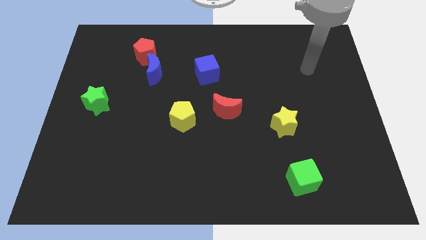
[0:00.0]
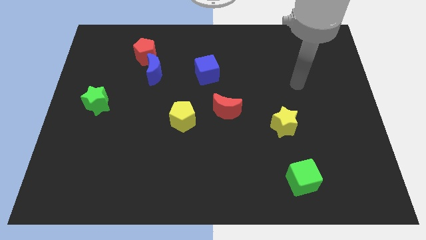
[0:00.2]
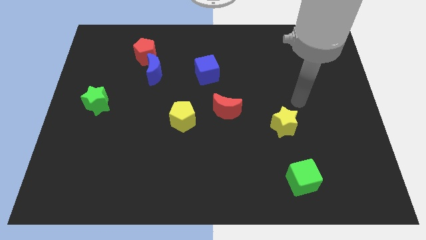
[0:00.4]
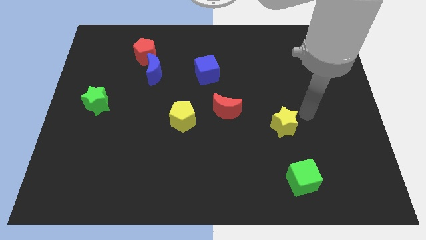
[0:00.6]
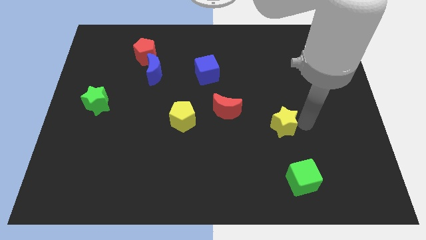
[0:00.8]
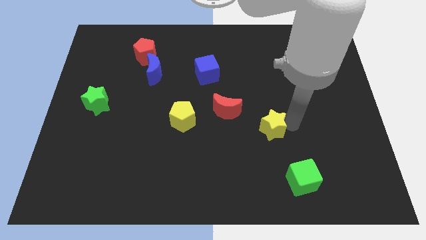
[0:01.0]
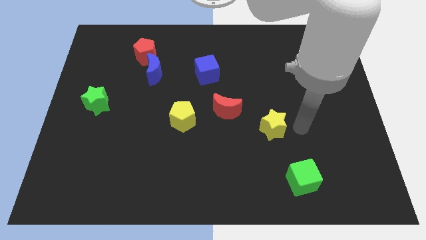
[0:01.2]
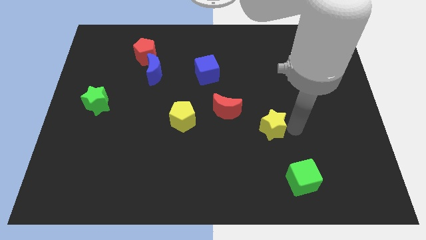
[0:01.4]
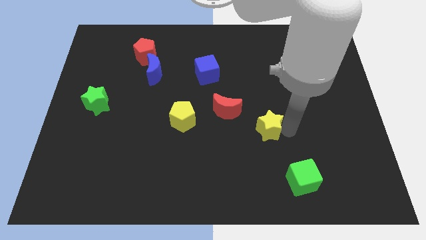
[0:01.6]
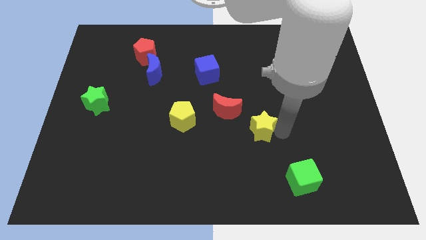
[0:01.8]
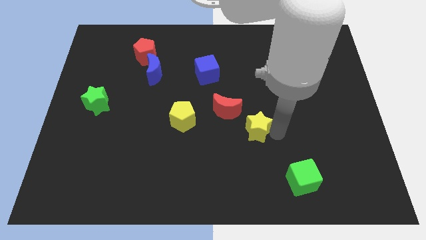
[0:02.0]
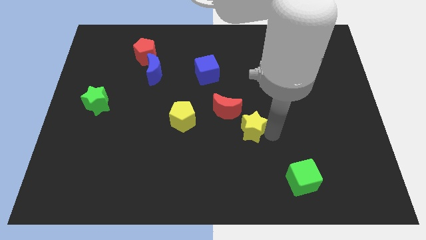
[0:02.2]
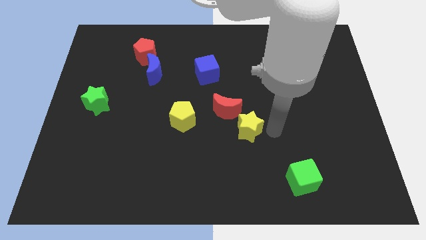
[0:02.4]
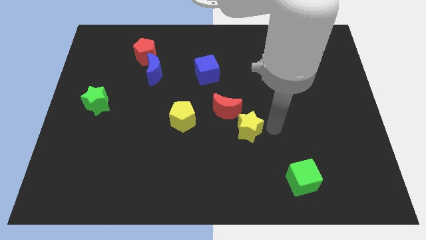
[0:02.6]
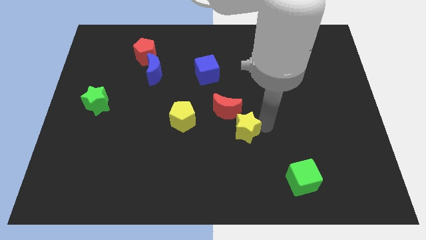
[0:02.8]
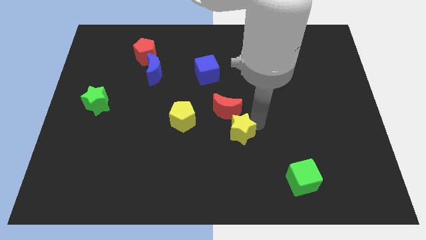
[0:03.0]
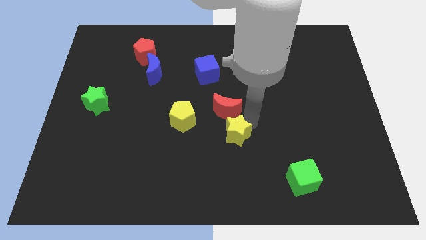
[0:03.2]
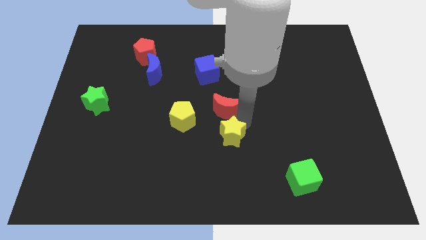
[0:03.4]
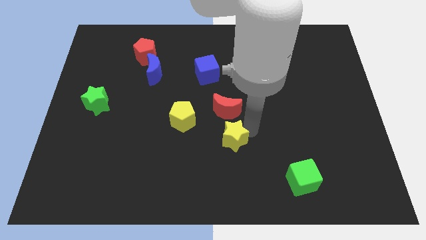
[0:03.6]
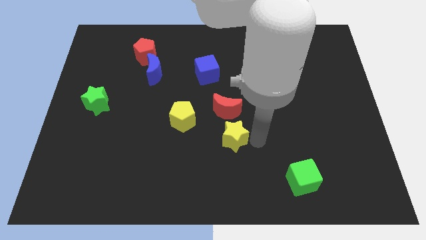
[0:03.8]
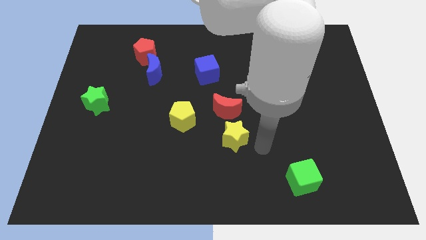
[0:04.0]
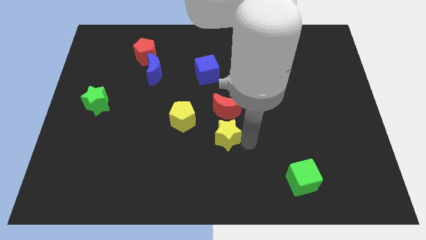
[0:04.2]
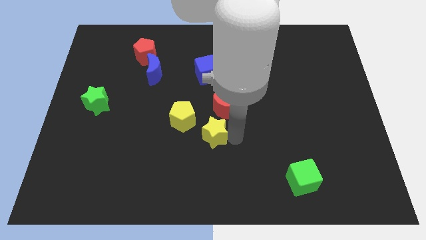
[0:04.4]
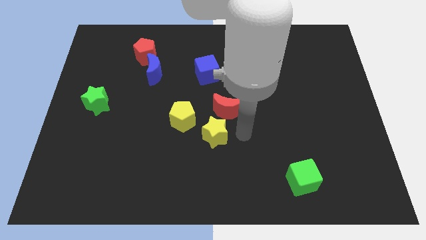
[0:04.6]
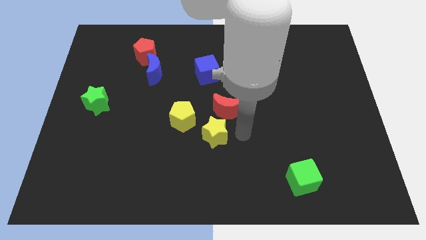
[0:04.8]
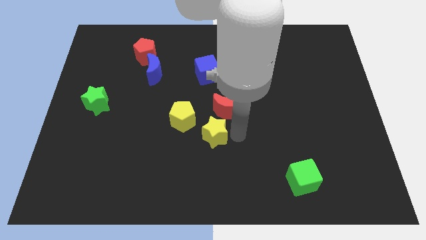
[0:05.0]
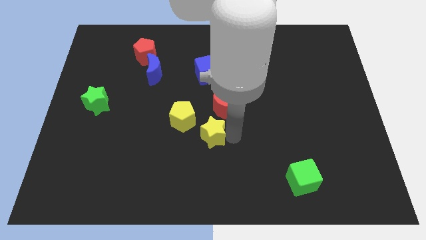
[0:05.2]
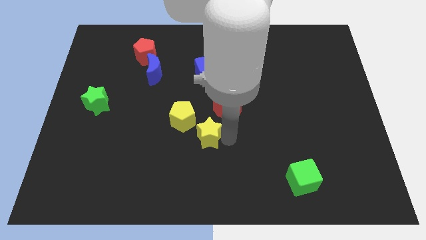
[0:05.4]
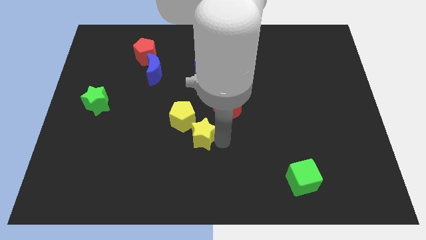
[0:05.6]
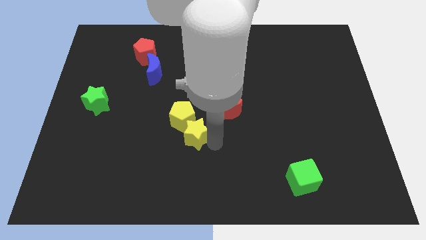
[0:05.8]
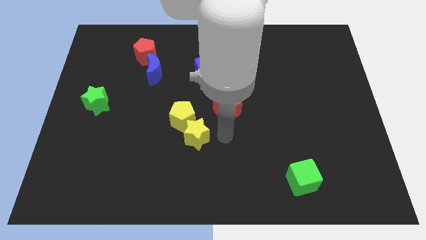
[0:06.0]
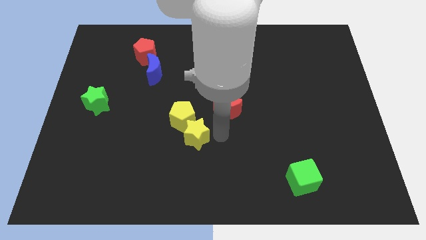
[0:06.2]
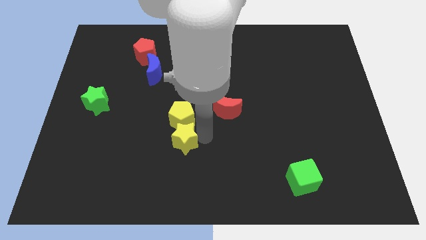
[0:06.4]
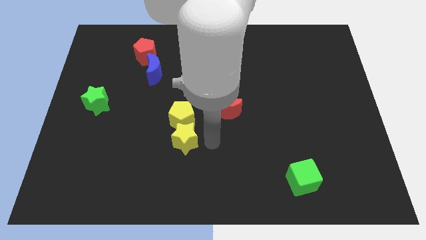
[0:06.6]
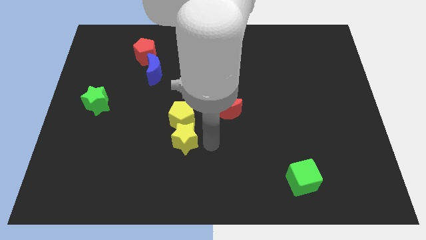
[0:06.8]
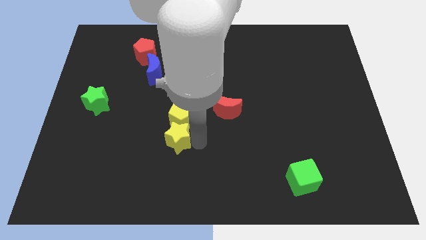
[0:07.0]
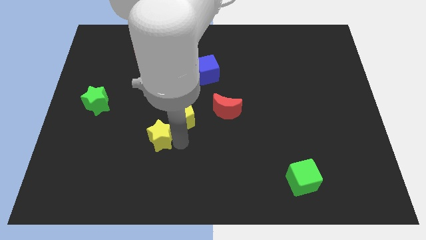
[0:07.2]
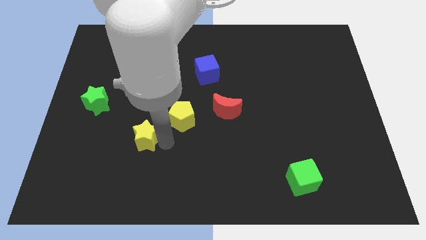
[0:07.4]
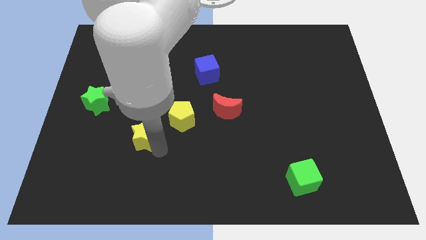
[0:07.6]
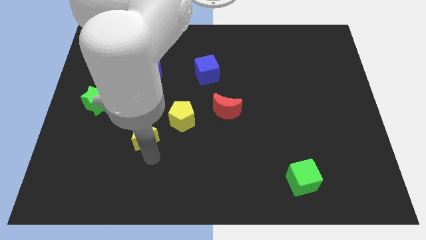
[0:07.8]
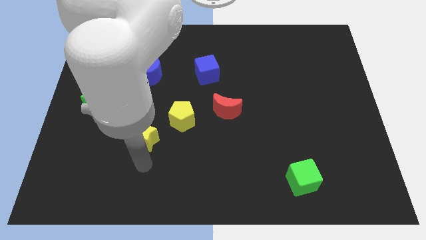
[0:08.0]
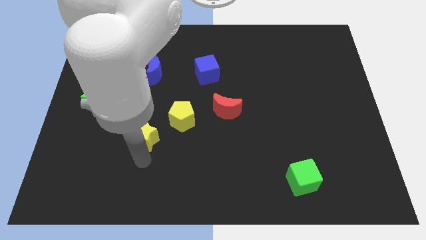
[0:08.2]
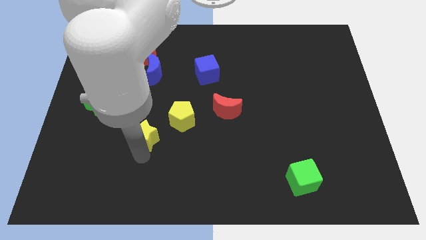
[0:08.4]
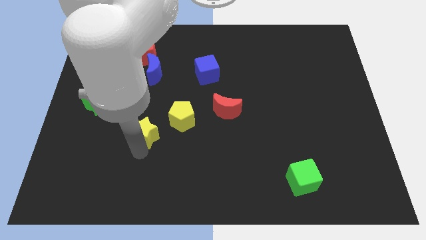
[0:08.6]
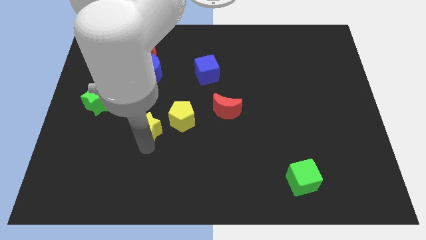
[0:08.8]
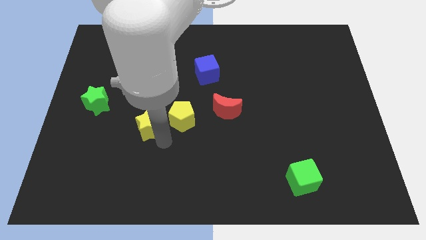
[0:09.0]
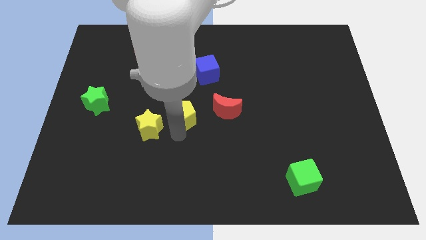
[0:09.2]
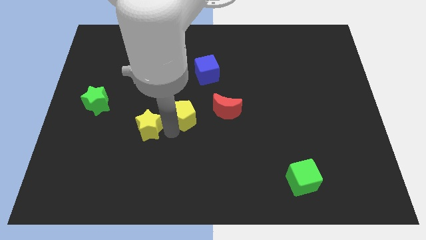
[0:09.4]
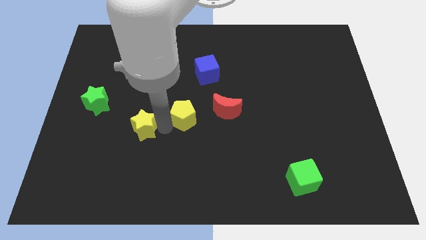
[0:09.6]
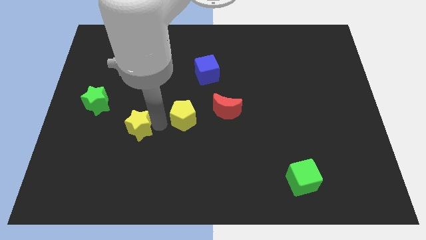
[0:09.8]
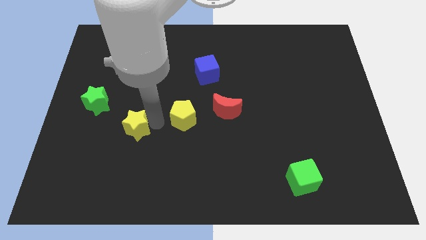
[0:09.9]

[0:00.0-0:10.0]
move the yellow star diagonally down and to the right of the green star

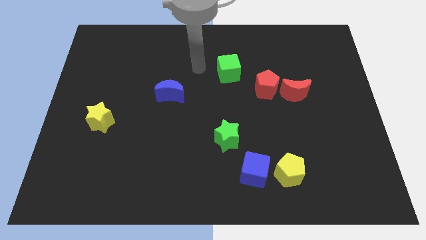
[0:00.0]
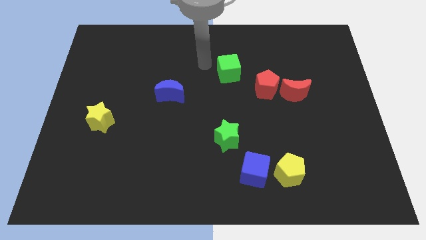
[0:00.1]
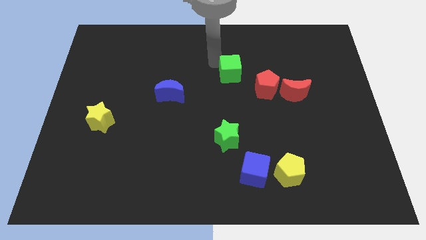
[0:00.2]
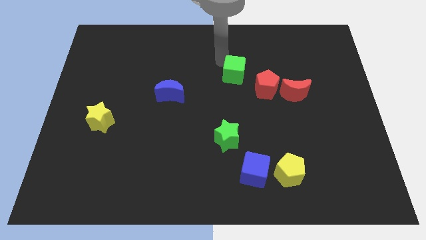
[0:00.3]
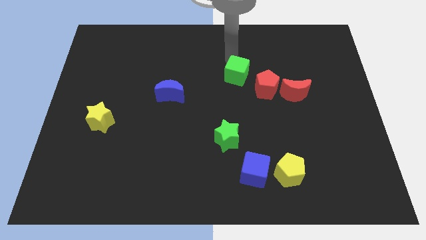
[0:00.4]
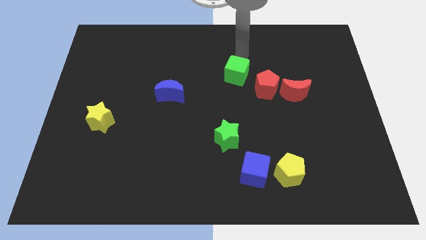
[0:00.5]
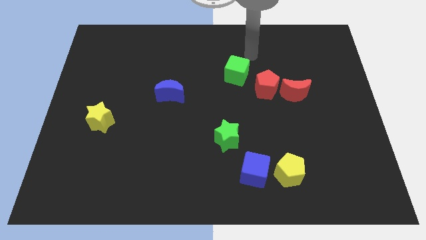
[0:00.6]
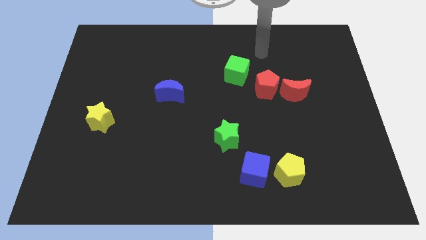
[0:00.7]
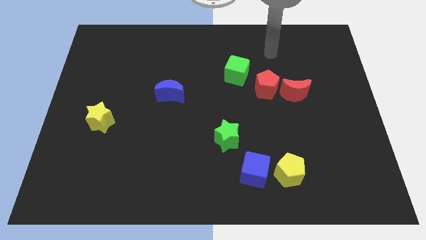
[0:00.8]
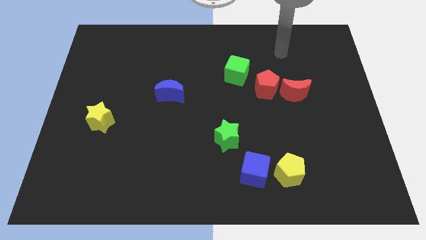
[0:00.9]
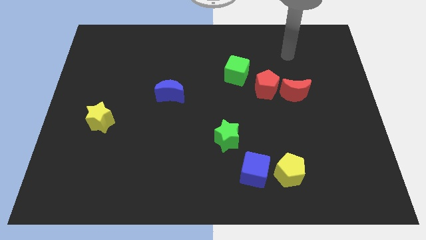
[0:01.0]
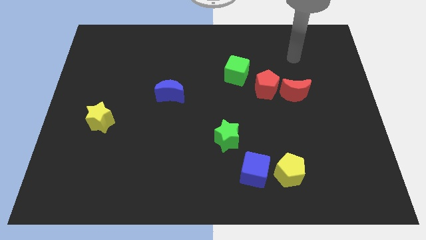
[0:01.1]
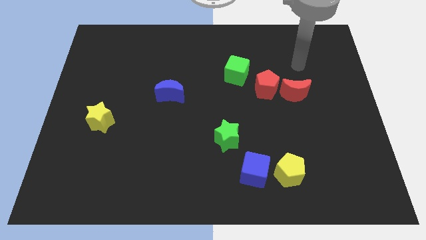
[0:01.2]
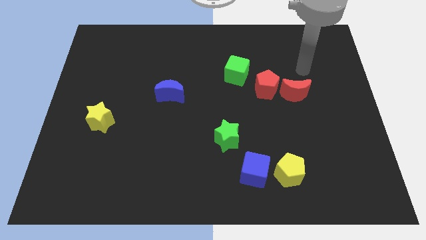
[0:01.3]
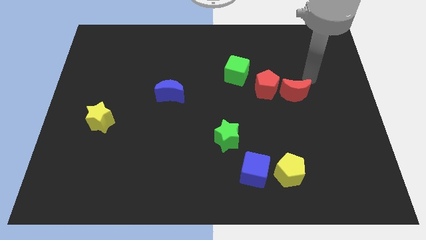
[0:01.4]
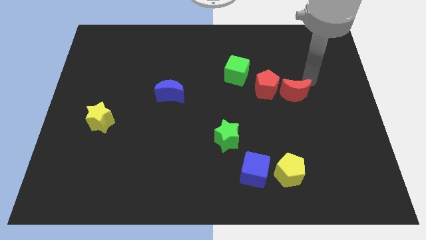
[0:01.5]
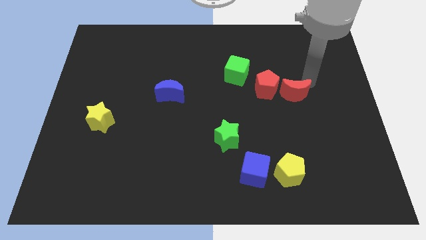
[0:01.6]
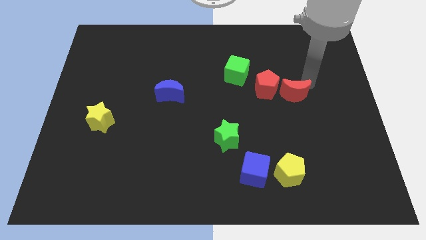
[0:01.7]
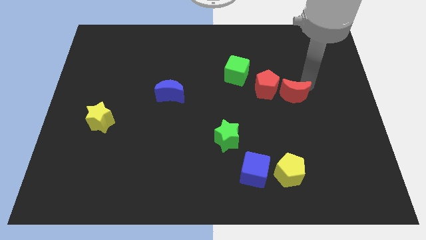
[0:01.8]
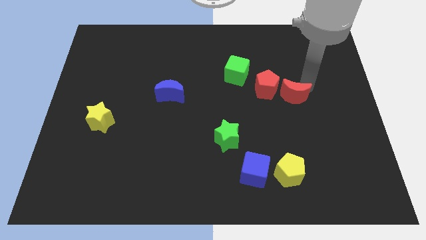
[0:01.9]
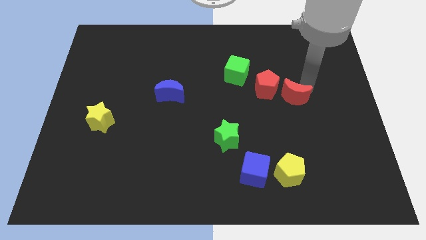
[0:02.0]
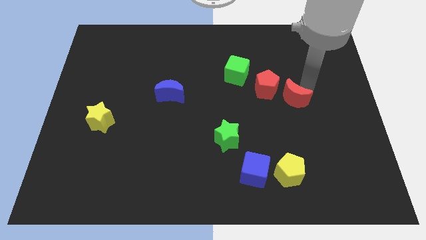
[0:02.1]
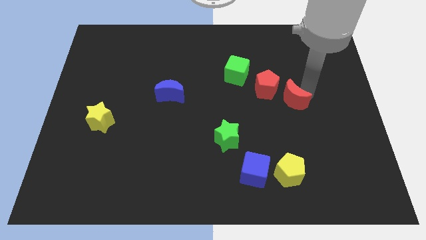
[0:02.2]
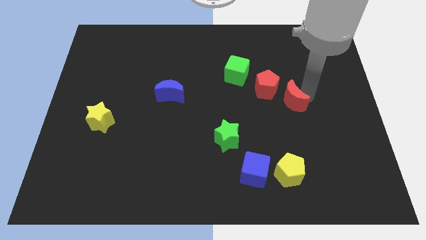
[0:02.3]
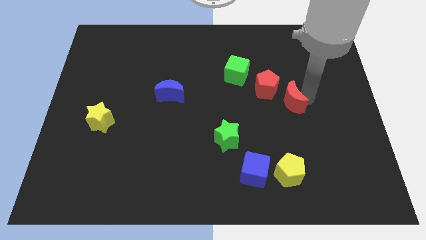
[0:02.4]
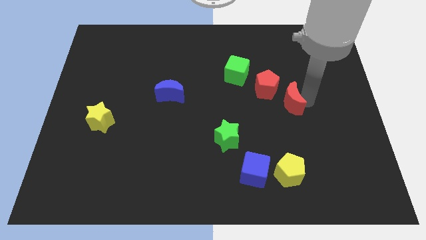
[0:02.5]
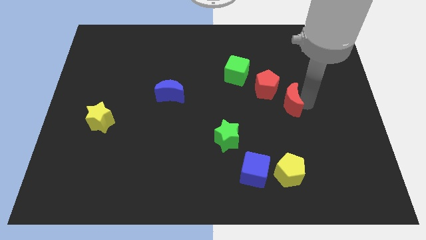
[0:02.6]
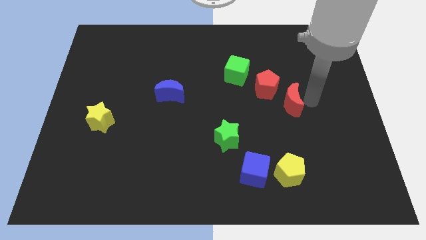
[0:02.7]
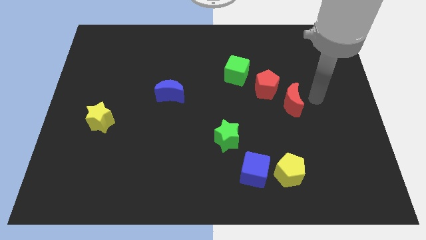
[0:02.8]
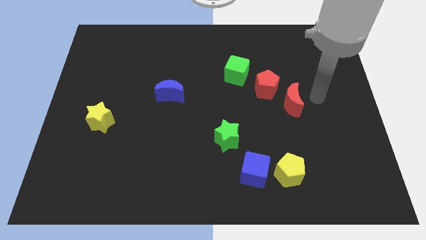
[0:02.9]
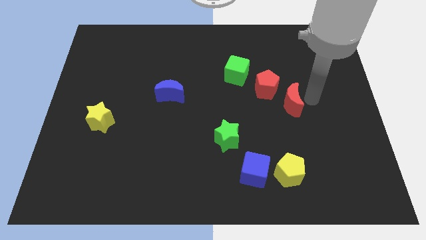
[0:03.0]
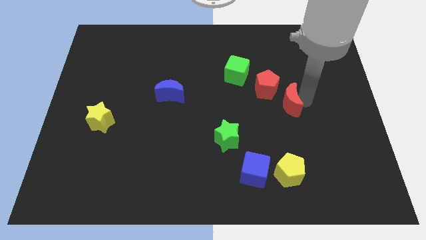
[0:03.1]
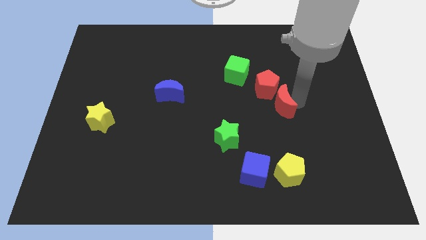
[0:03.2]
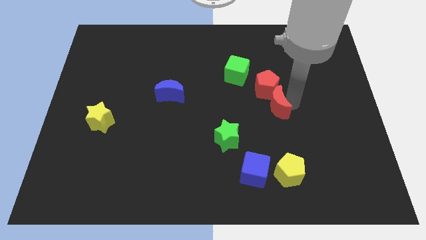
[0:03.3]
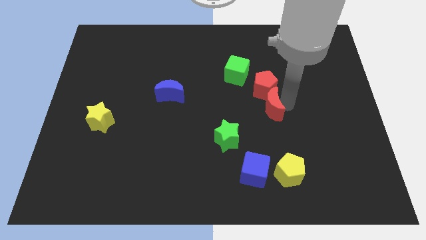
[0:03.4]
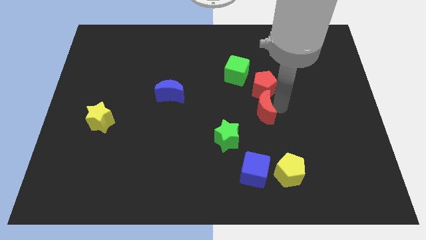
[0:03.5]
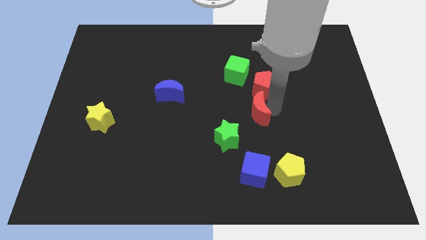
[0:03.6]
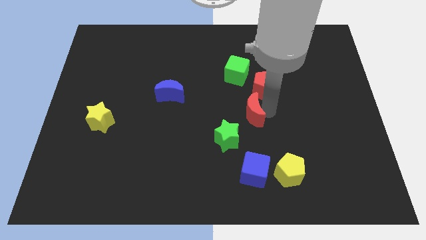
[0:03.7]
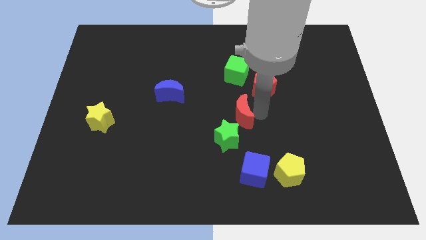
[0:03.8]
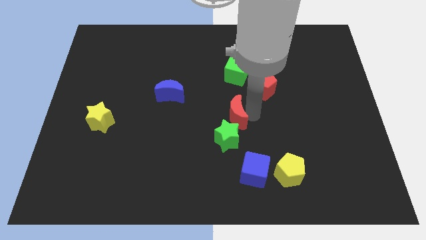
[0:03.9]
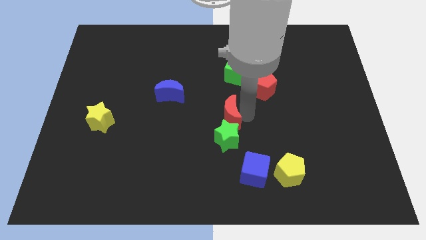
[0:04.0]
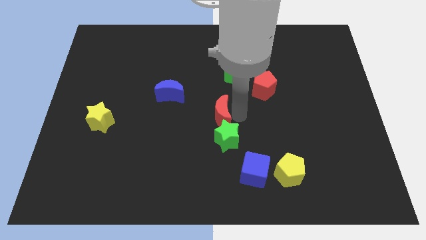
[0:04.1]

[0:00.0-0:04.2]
put the red moon to the top left side of the green star
